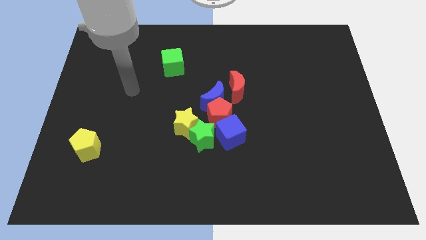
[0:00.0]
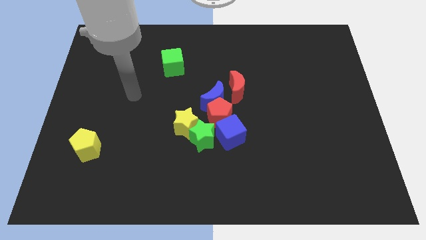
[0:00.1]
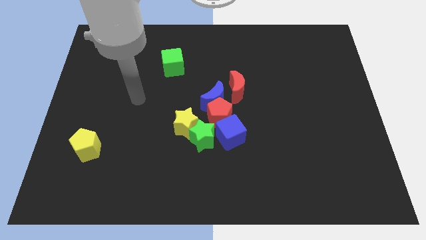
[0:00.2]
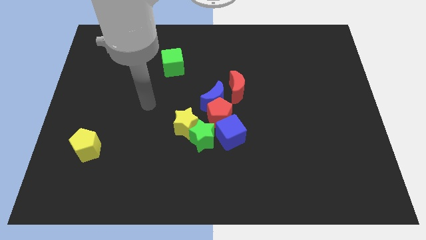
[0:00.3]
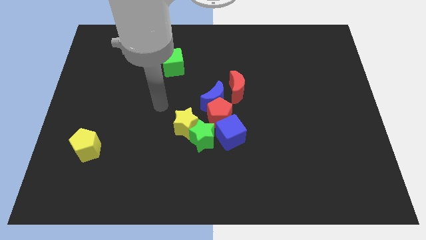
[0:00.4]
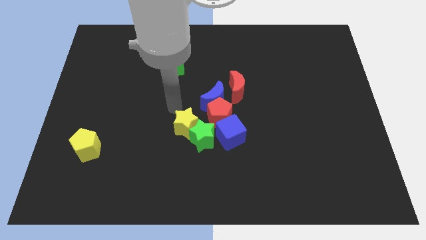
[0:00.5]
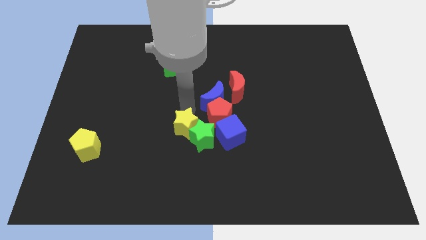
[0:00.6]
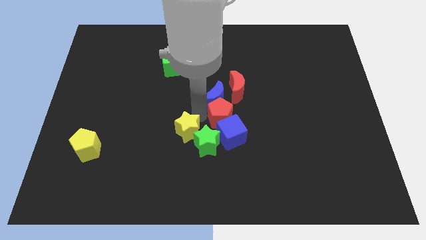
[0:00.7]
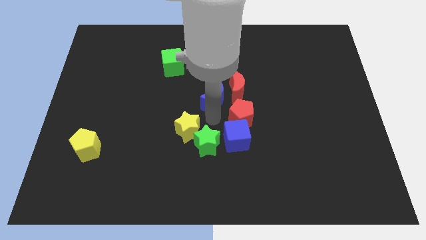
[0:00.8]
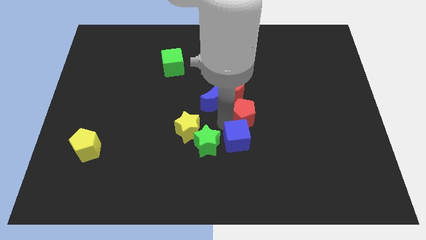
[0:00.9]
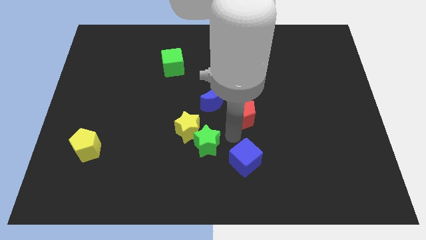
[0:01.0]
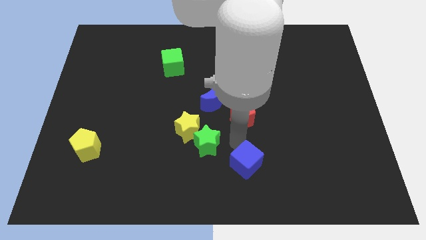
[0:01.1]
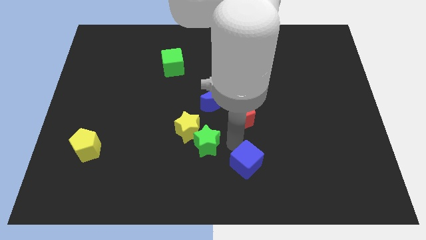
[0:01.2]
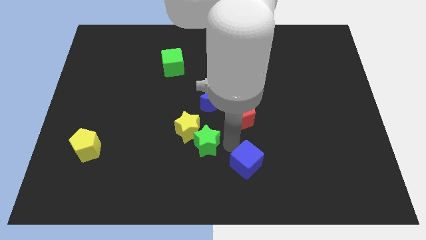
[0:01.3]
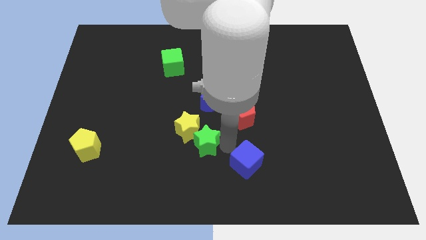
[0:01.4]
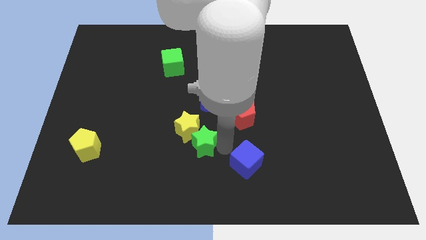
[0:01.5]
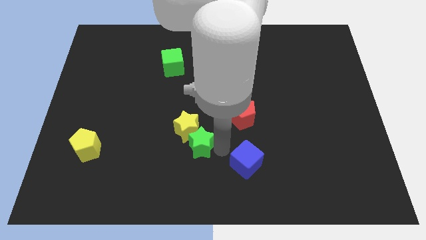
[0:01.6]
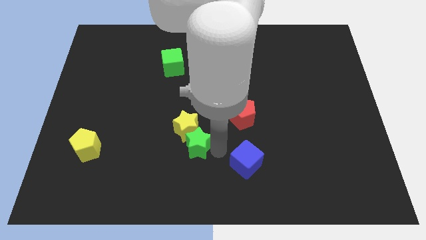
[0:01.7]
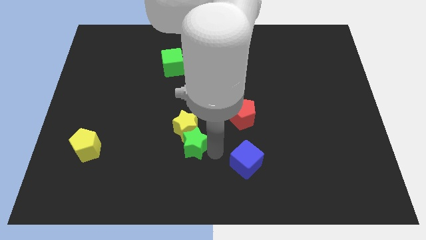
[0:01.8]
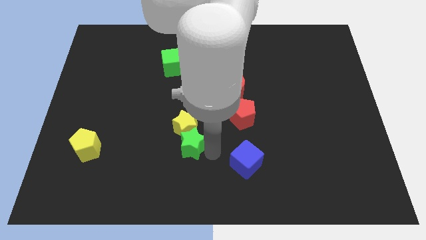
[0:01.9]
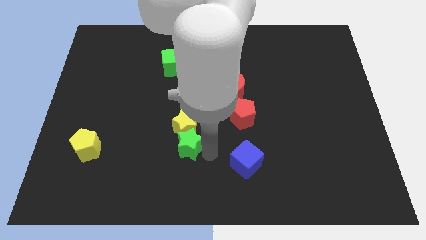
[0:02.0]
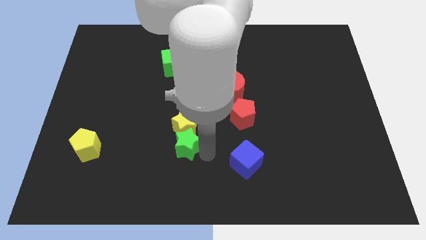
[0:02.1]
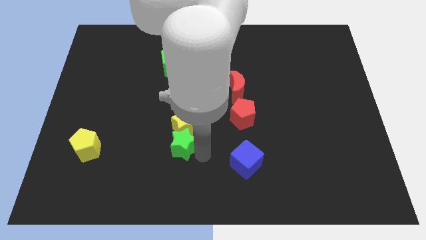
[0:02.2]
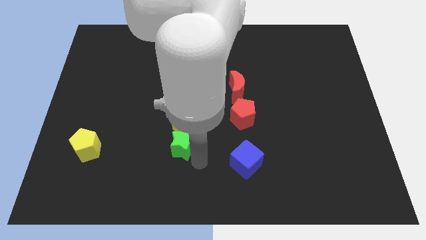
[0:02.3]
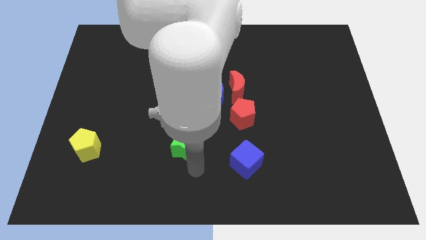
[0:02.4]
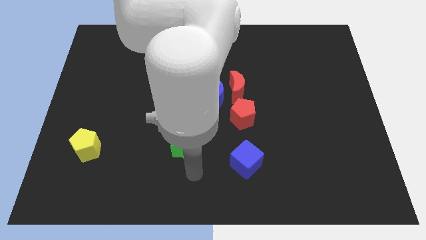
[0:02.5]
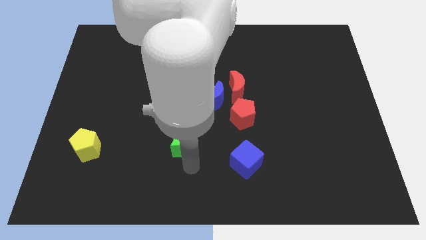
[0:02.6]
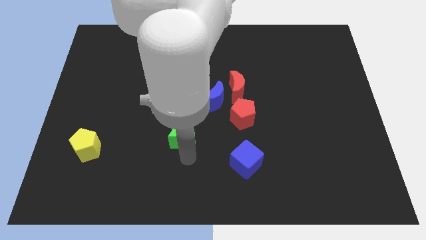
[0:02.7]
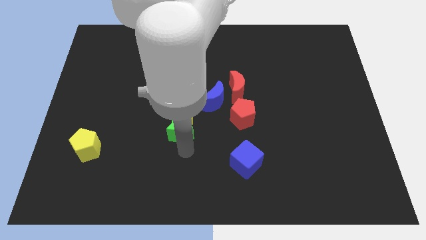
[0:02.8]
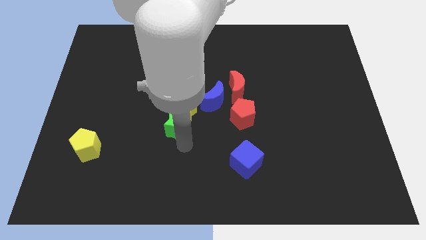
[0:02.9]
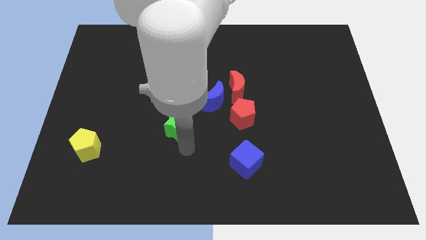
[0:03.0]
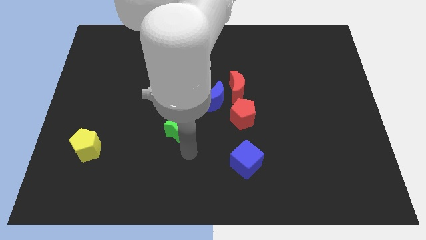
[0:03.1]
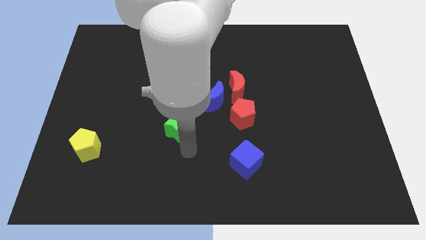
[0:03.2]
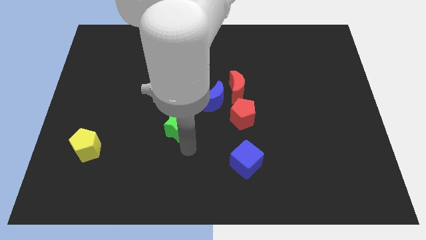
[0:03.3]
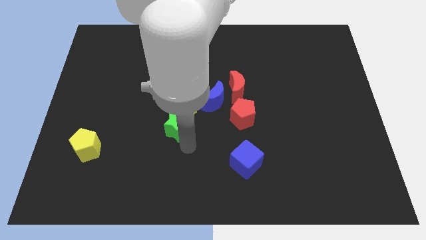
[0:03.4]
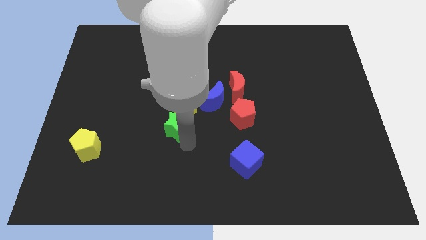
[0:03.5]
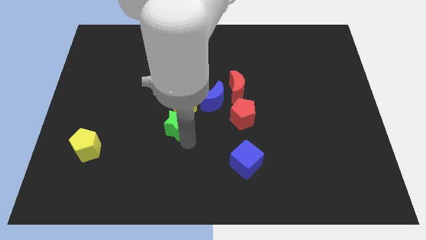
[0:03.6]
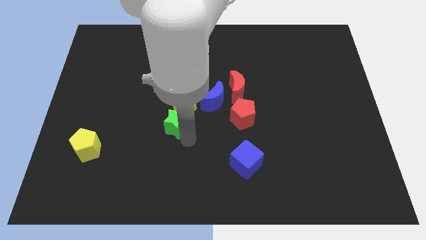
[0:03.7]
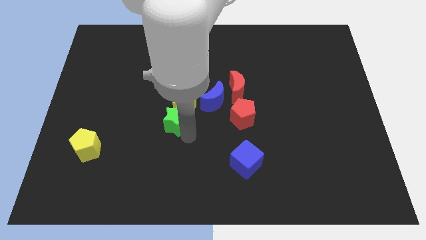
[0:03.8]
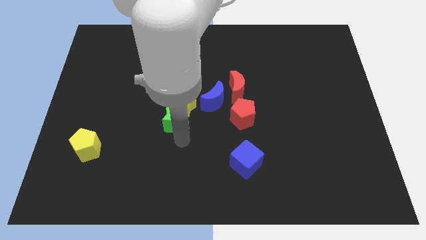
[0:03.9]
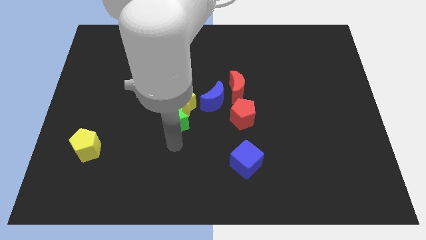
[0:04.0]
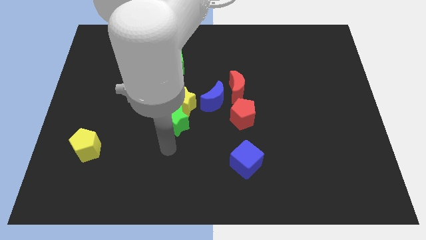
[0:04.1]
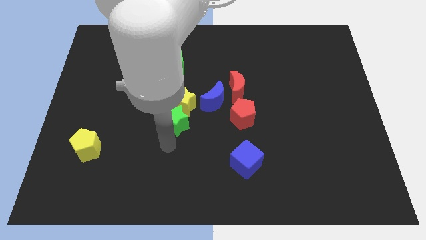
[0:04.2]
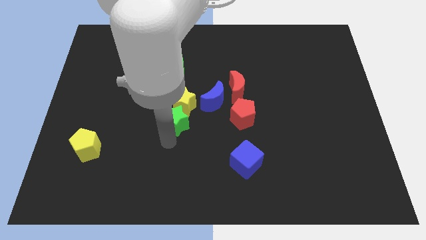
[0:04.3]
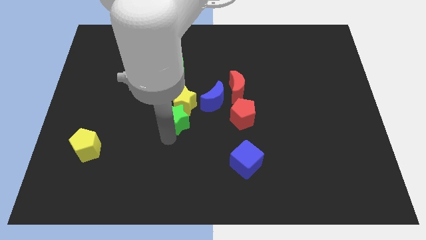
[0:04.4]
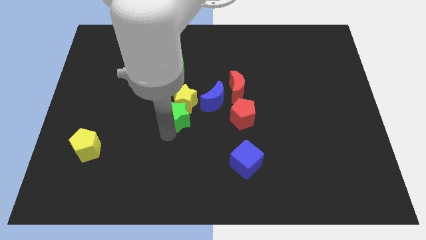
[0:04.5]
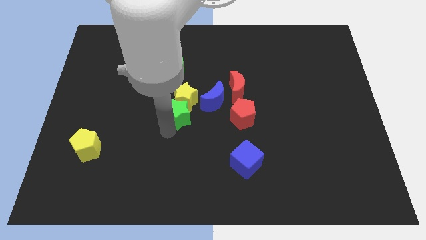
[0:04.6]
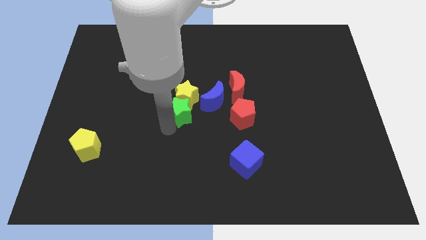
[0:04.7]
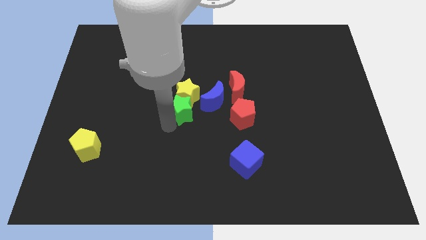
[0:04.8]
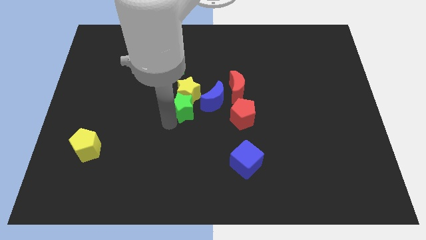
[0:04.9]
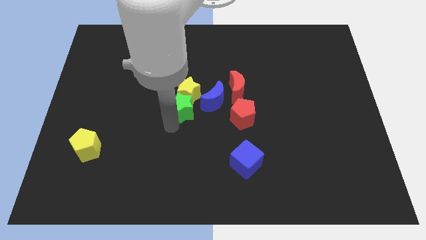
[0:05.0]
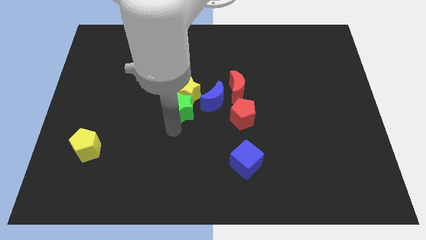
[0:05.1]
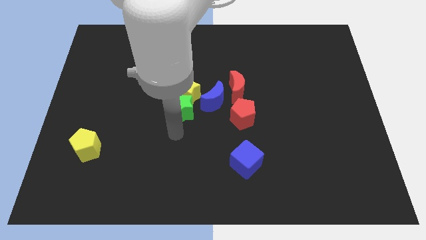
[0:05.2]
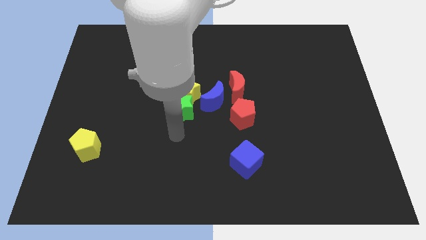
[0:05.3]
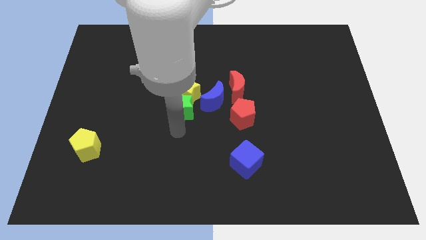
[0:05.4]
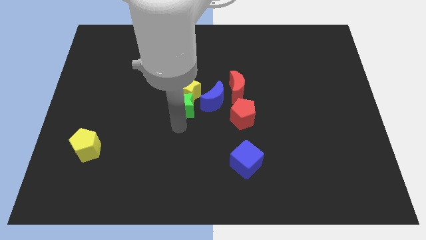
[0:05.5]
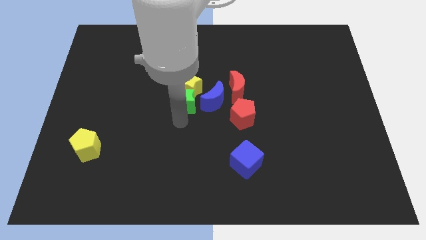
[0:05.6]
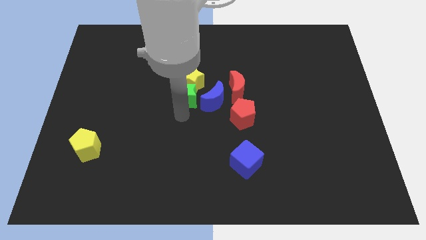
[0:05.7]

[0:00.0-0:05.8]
move the green star diagonally up and to the left of the blue moon

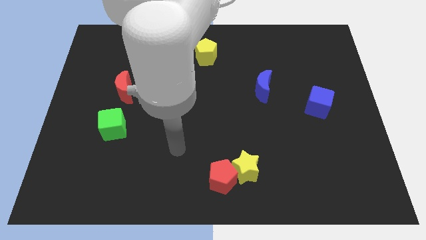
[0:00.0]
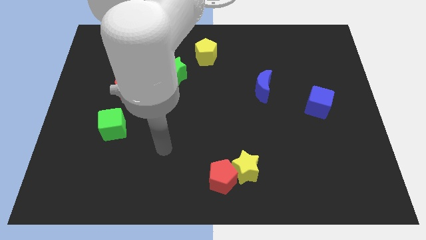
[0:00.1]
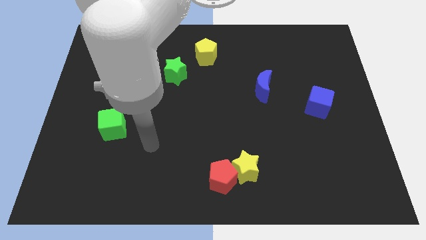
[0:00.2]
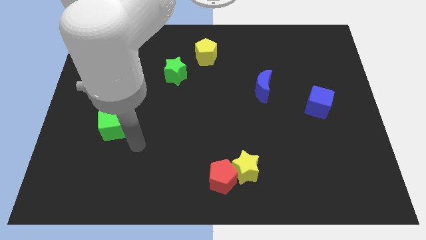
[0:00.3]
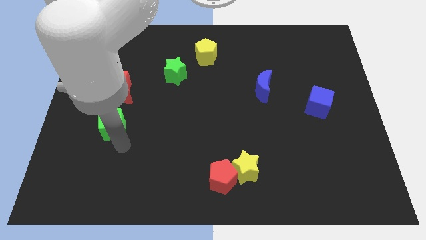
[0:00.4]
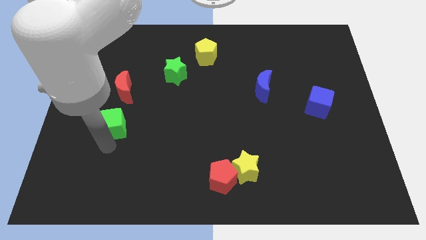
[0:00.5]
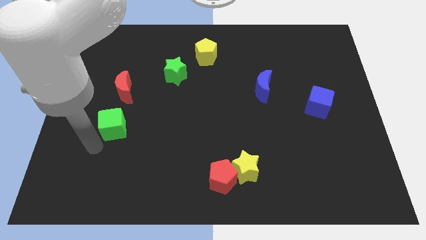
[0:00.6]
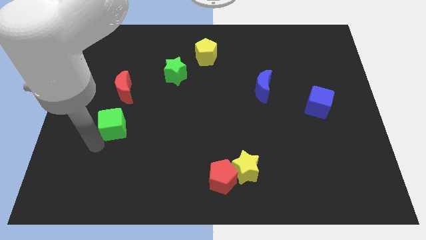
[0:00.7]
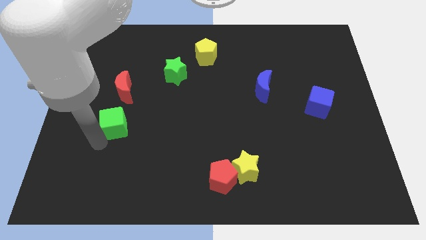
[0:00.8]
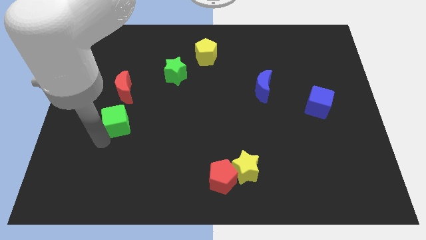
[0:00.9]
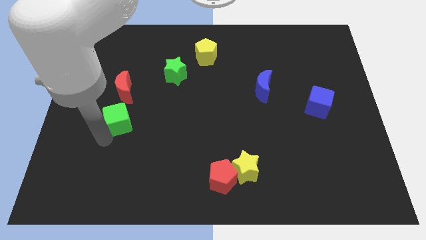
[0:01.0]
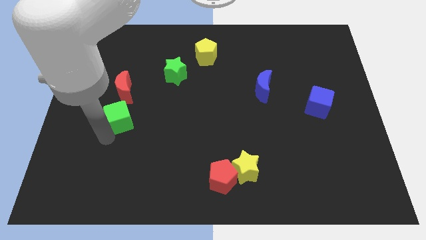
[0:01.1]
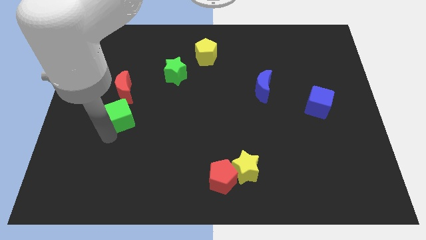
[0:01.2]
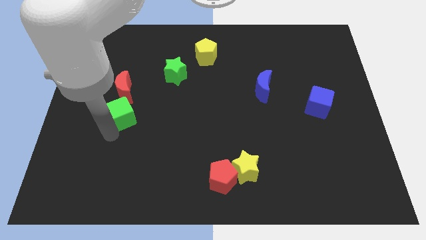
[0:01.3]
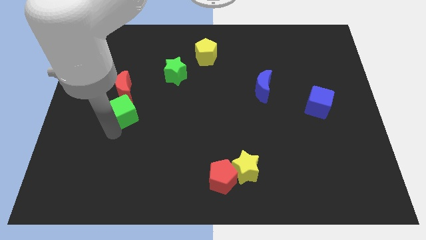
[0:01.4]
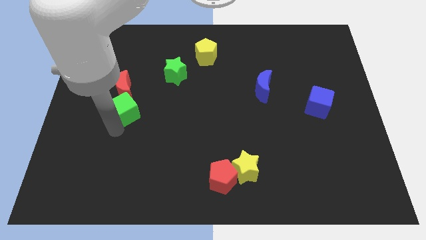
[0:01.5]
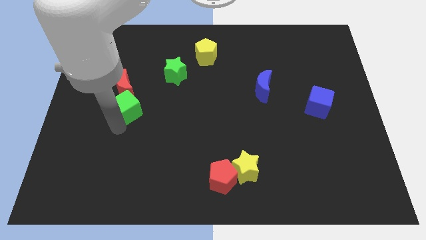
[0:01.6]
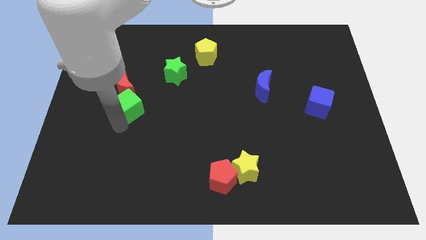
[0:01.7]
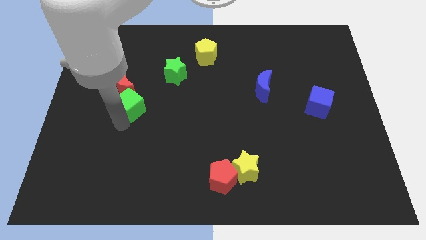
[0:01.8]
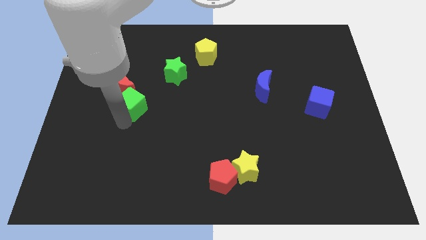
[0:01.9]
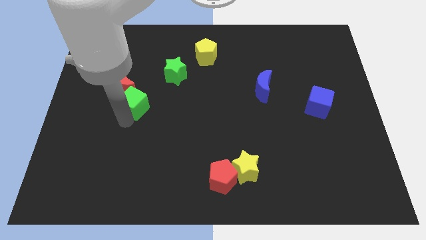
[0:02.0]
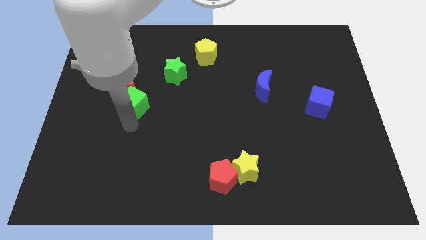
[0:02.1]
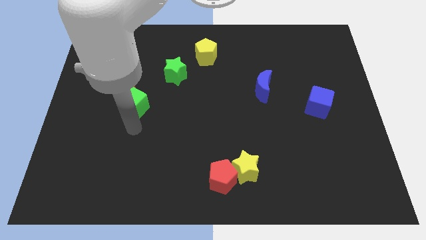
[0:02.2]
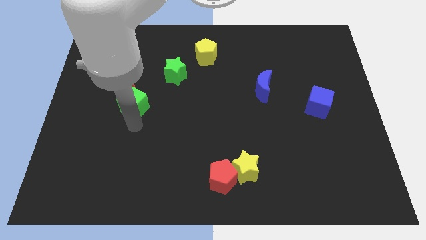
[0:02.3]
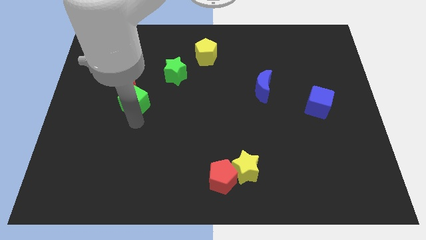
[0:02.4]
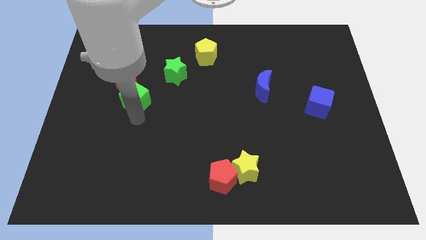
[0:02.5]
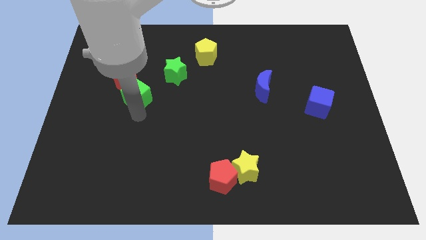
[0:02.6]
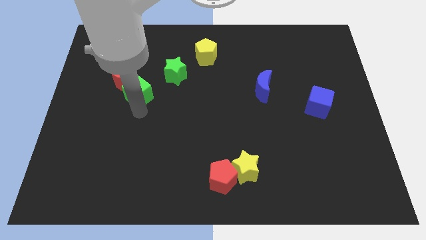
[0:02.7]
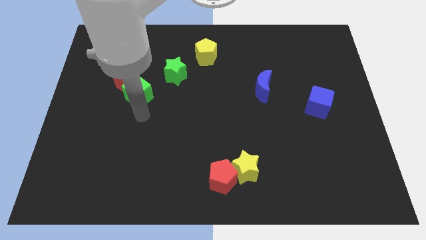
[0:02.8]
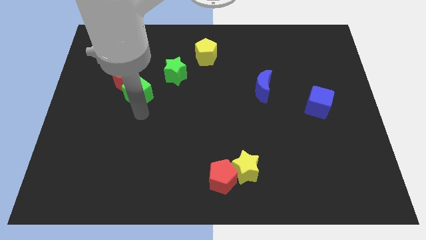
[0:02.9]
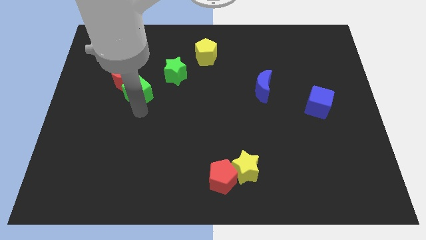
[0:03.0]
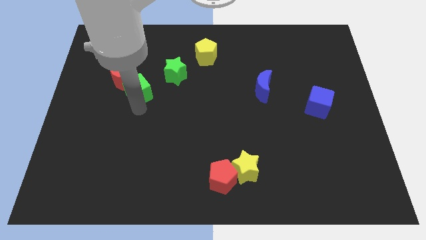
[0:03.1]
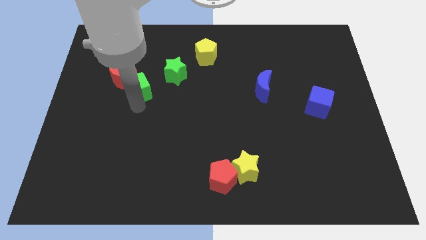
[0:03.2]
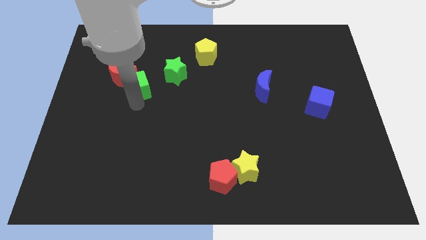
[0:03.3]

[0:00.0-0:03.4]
push the green cube just left of the green star
